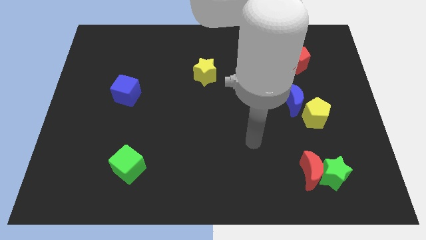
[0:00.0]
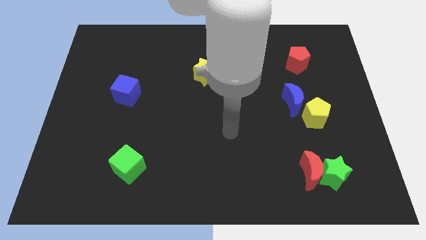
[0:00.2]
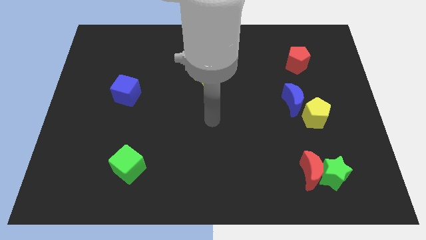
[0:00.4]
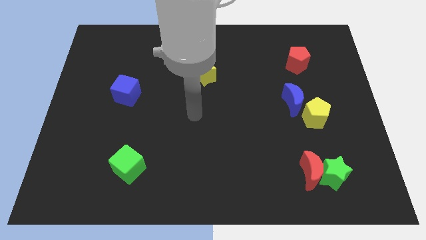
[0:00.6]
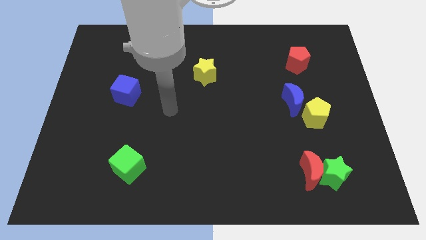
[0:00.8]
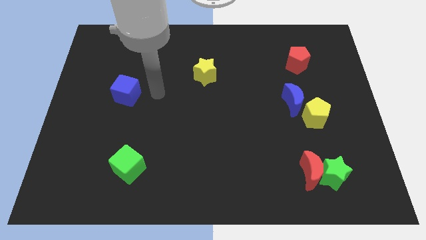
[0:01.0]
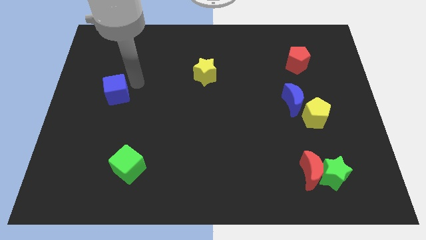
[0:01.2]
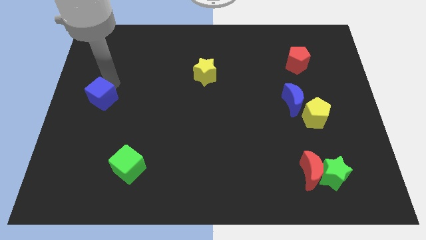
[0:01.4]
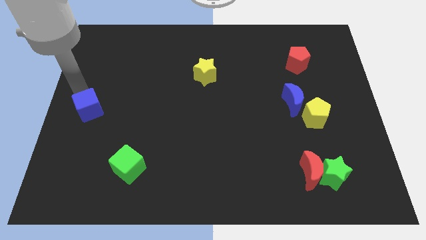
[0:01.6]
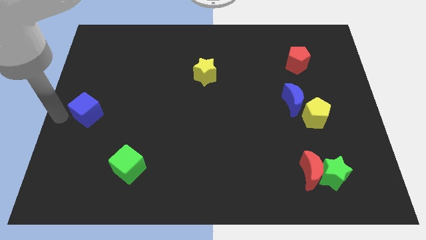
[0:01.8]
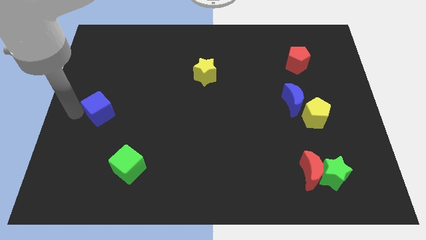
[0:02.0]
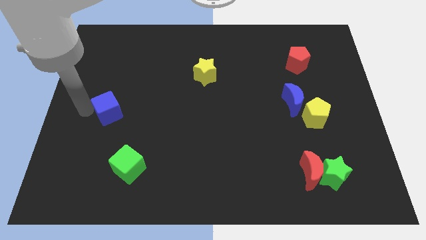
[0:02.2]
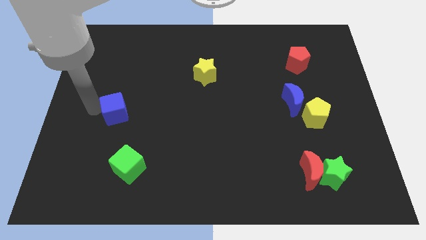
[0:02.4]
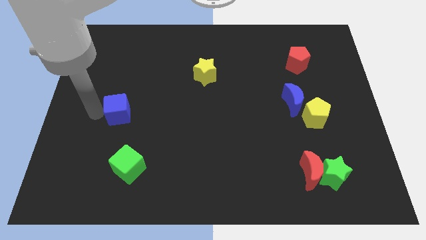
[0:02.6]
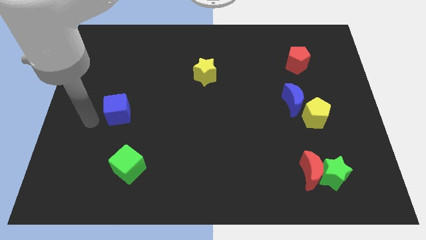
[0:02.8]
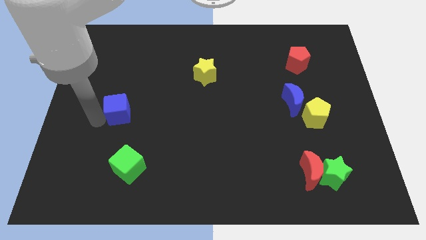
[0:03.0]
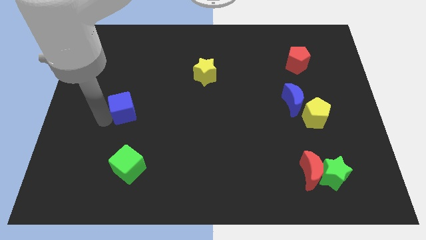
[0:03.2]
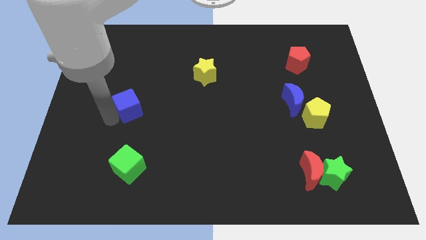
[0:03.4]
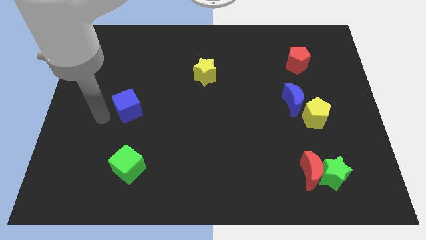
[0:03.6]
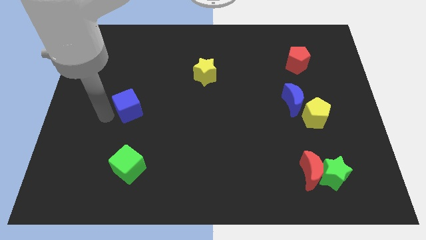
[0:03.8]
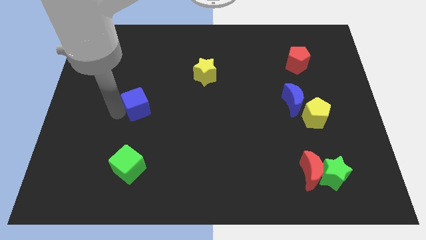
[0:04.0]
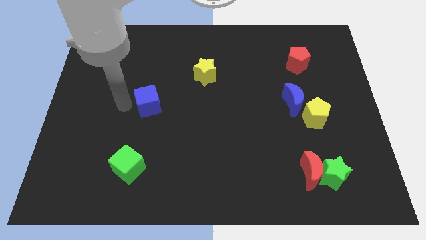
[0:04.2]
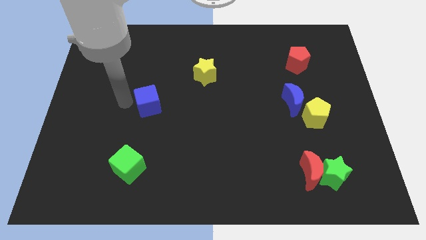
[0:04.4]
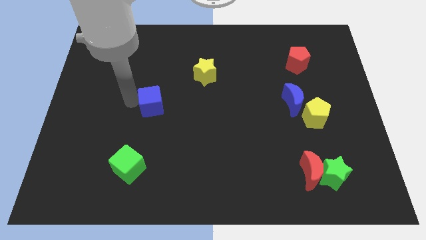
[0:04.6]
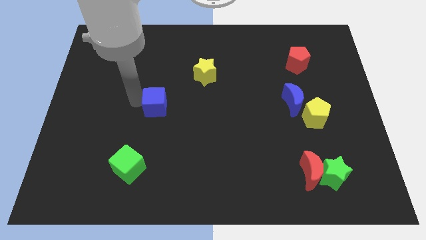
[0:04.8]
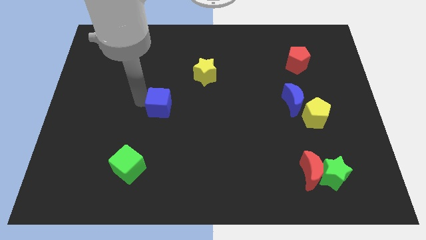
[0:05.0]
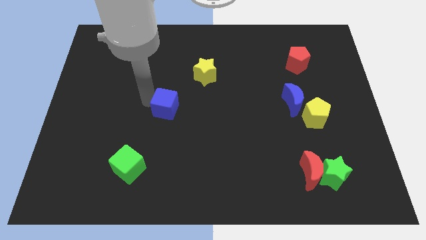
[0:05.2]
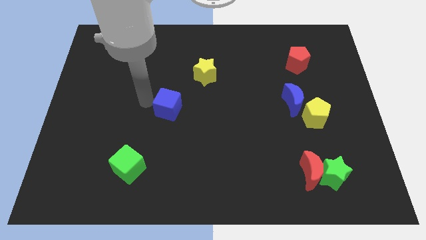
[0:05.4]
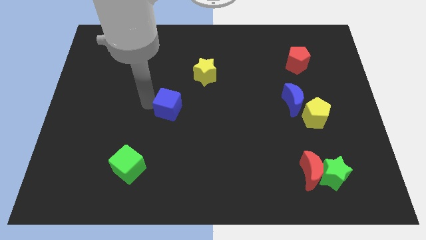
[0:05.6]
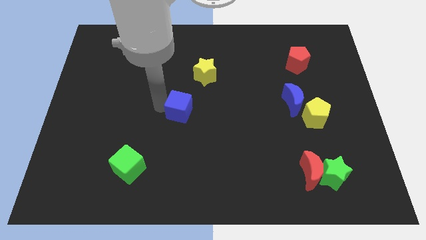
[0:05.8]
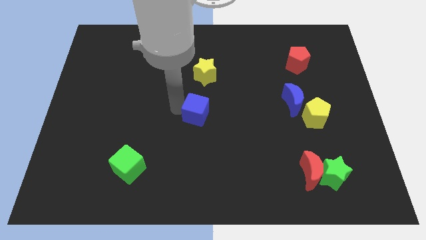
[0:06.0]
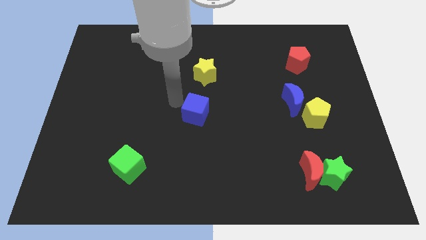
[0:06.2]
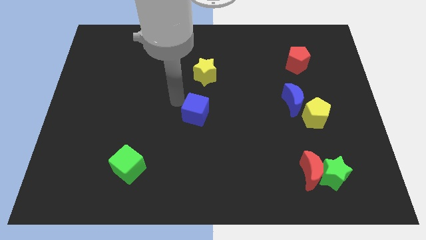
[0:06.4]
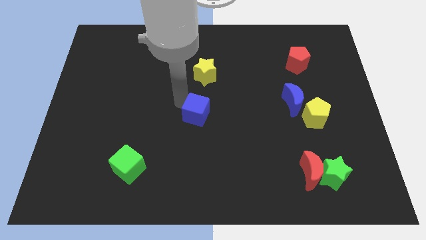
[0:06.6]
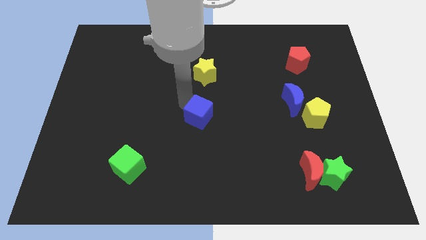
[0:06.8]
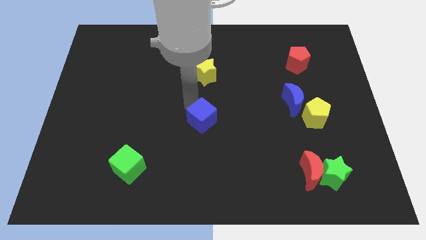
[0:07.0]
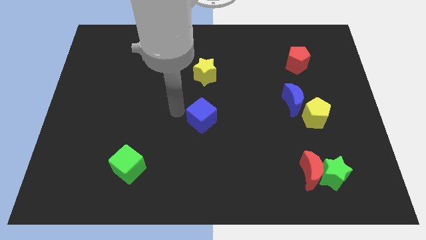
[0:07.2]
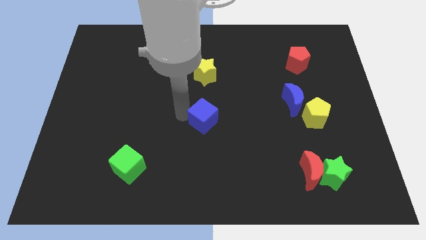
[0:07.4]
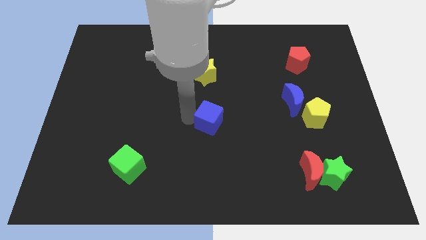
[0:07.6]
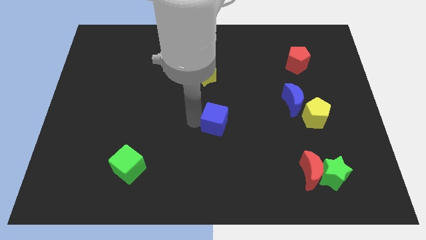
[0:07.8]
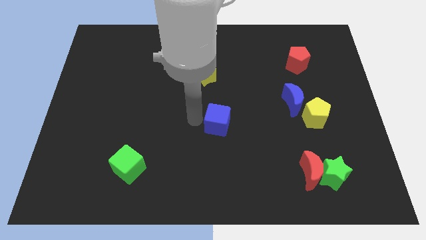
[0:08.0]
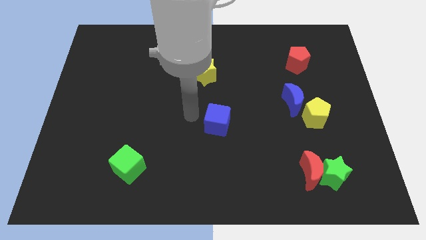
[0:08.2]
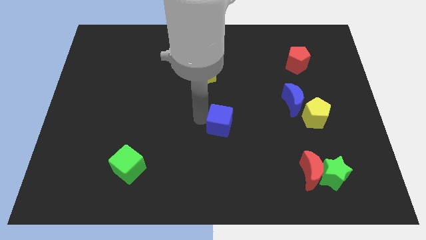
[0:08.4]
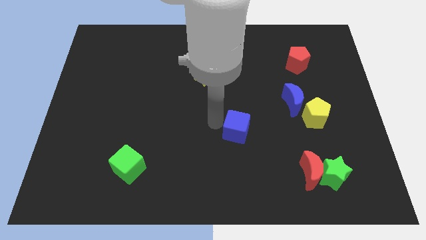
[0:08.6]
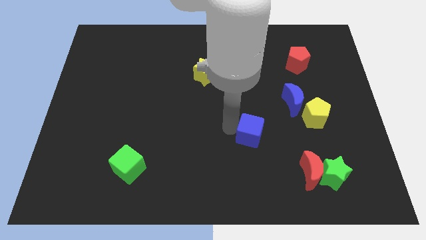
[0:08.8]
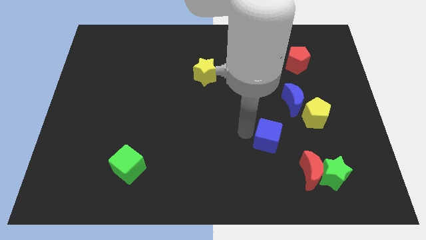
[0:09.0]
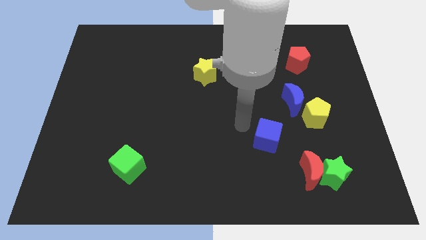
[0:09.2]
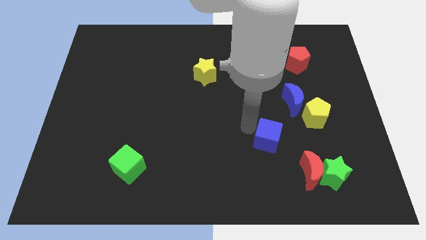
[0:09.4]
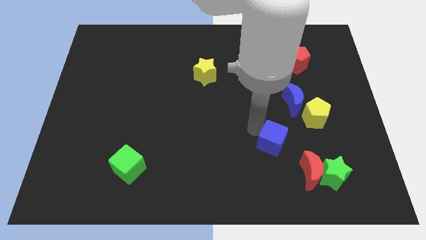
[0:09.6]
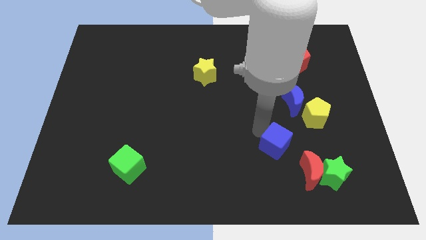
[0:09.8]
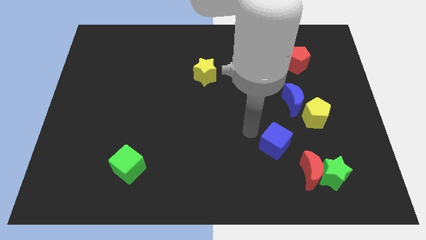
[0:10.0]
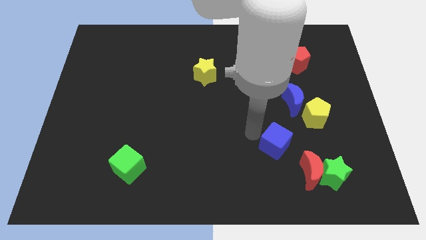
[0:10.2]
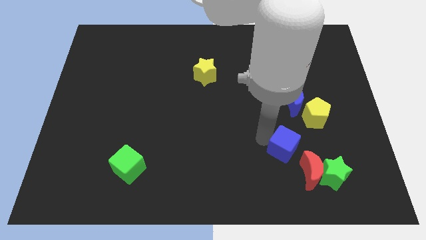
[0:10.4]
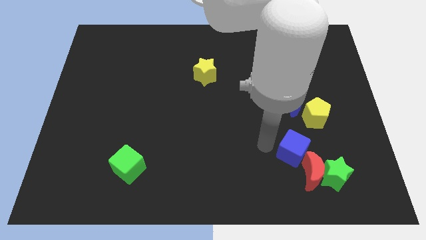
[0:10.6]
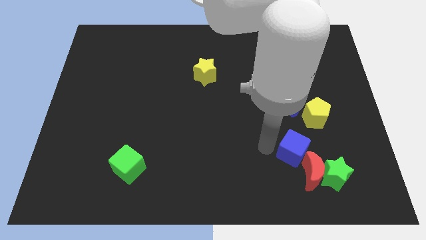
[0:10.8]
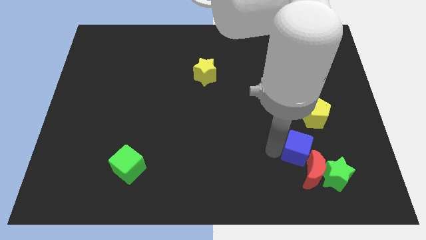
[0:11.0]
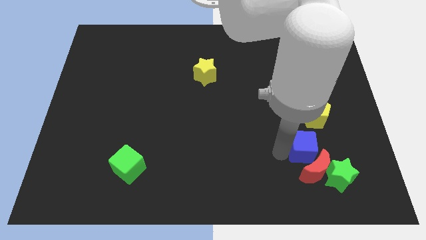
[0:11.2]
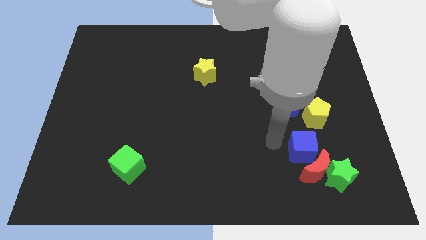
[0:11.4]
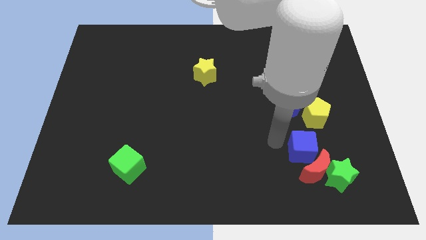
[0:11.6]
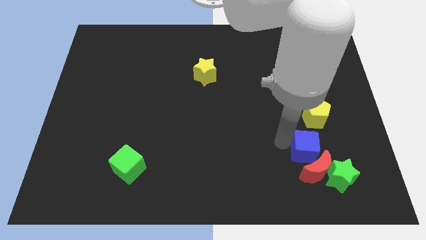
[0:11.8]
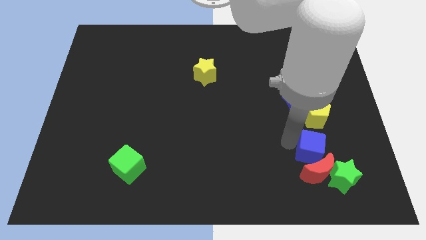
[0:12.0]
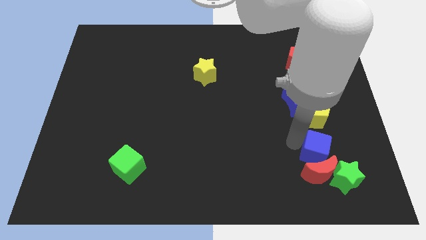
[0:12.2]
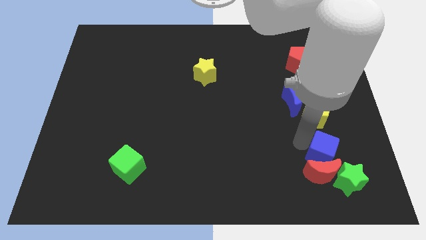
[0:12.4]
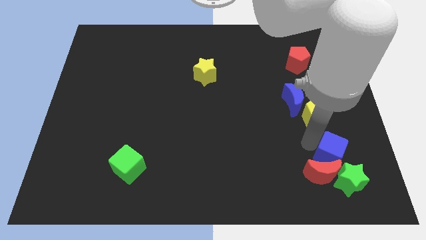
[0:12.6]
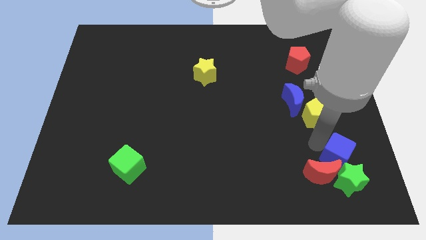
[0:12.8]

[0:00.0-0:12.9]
push the blue cube towards the green star
